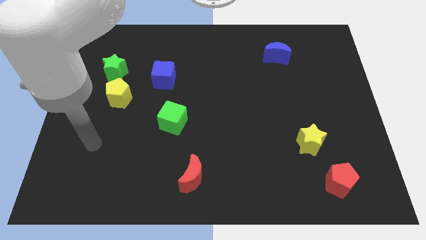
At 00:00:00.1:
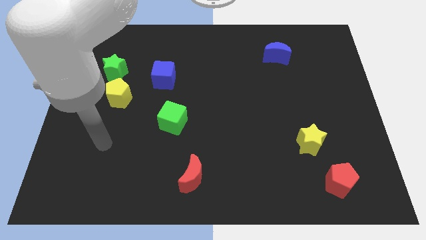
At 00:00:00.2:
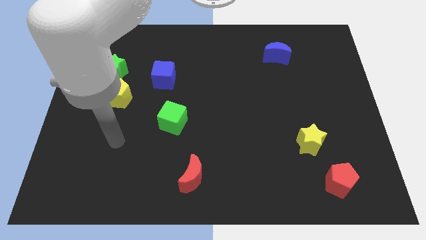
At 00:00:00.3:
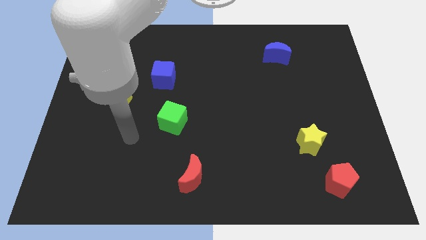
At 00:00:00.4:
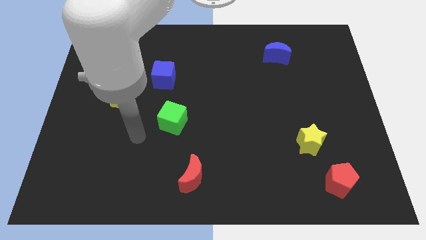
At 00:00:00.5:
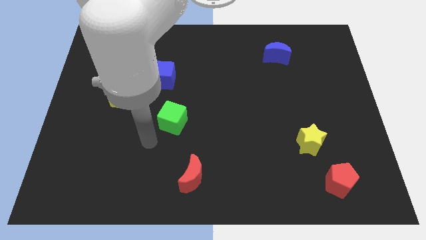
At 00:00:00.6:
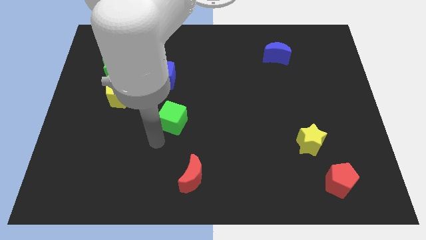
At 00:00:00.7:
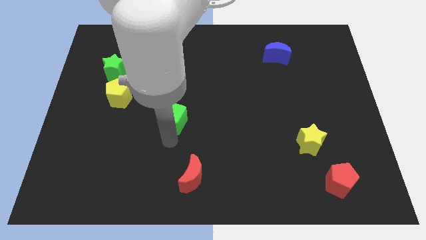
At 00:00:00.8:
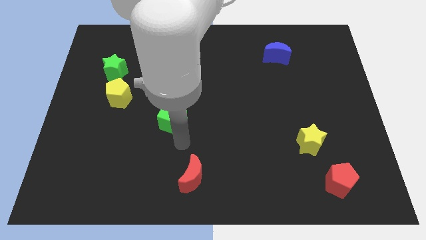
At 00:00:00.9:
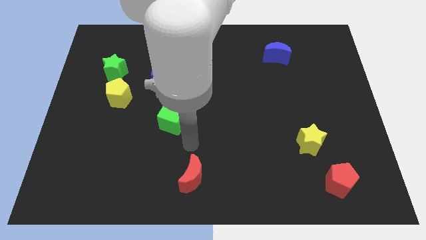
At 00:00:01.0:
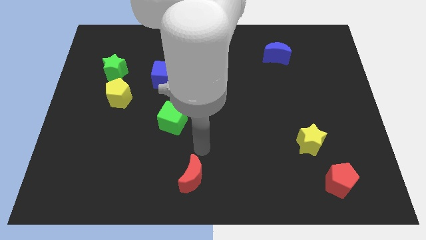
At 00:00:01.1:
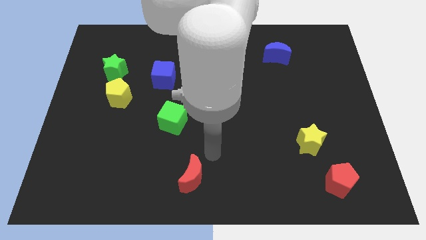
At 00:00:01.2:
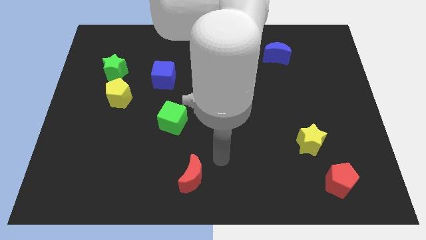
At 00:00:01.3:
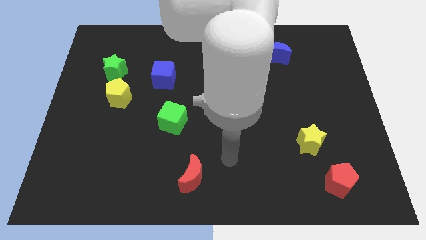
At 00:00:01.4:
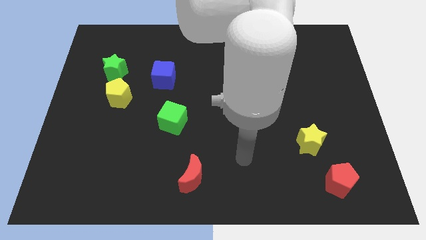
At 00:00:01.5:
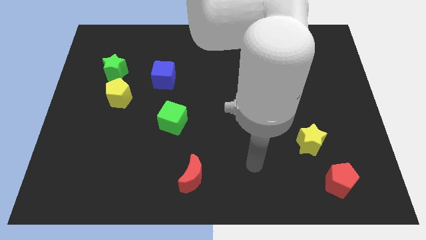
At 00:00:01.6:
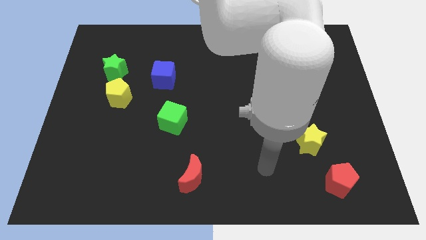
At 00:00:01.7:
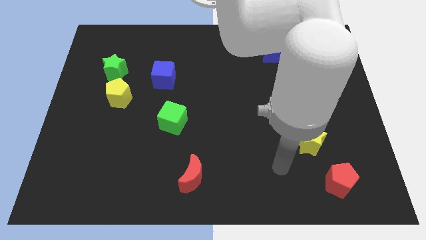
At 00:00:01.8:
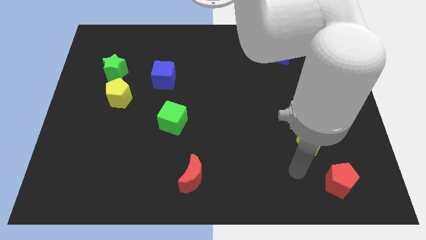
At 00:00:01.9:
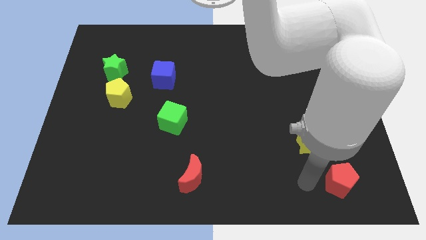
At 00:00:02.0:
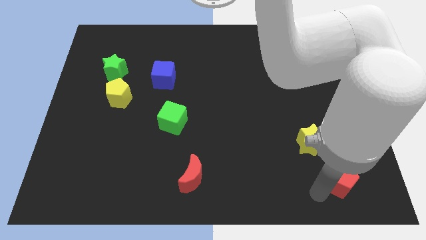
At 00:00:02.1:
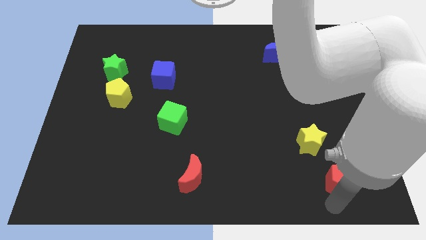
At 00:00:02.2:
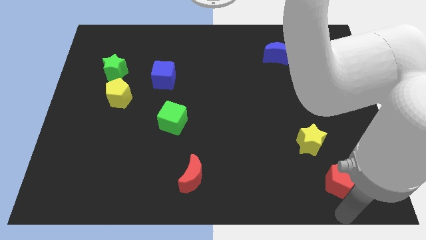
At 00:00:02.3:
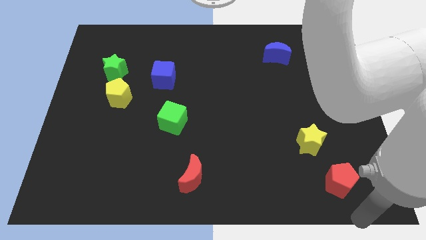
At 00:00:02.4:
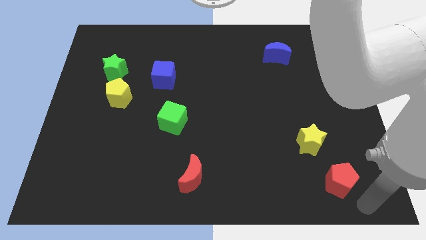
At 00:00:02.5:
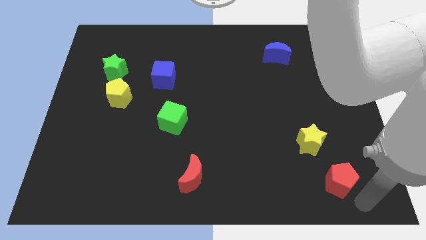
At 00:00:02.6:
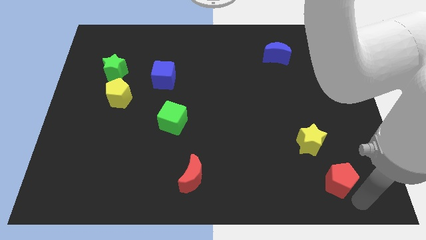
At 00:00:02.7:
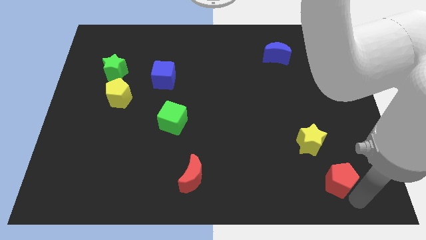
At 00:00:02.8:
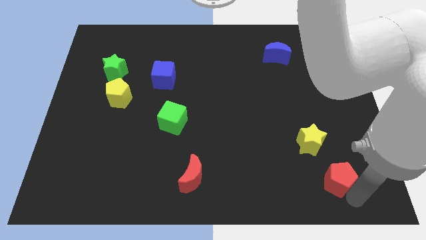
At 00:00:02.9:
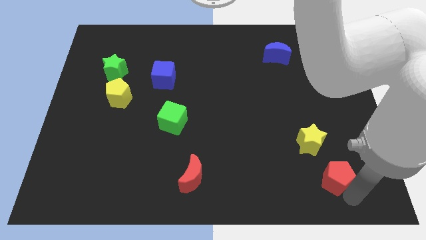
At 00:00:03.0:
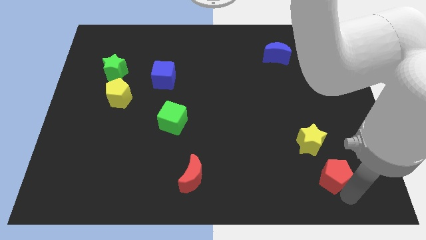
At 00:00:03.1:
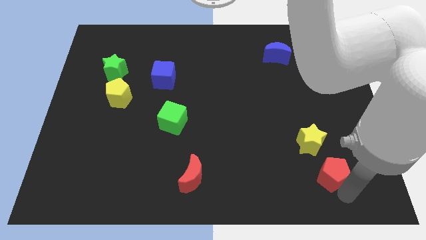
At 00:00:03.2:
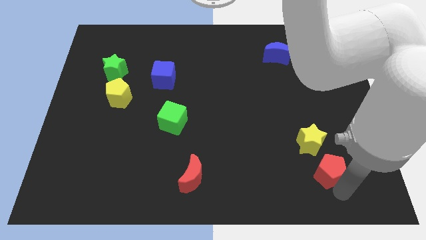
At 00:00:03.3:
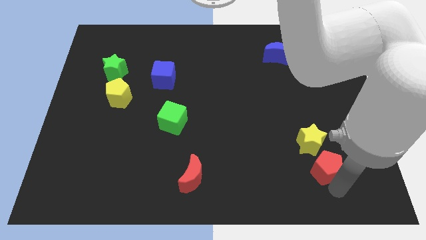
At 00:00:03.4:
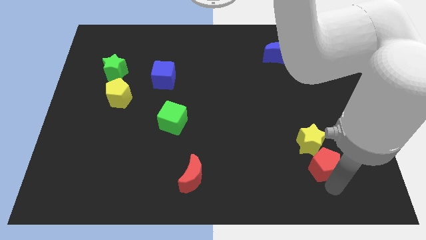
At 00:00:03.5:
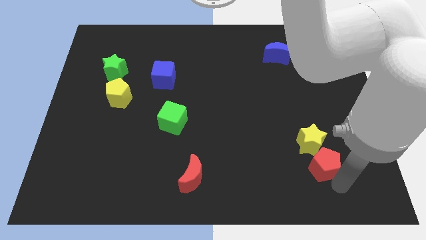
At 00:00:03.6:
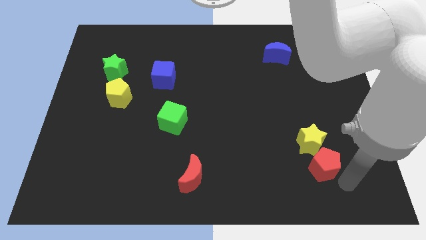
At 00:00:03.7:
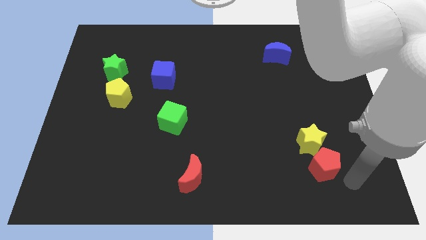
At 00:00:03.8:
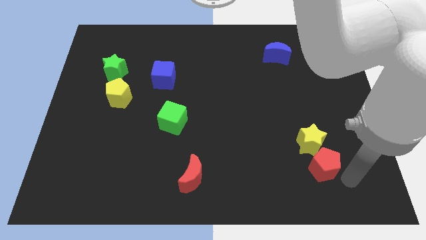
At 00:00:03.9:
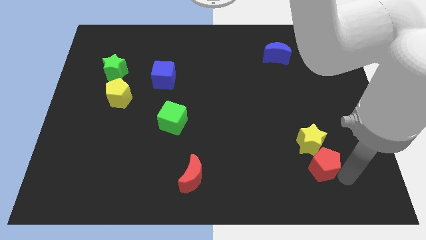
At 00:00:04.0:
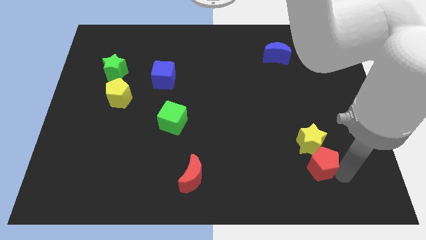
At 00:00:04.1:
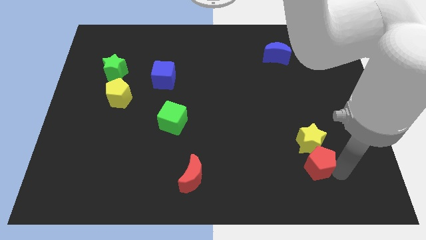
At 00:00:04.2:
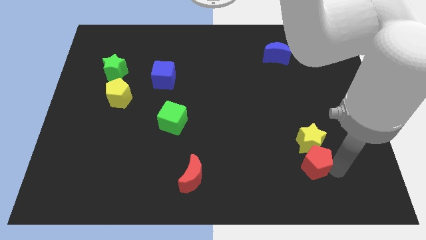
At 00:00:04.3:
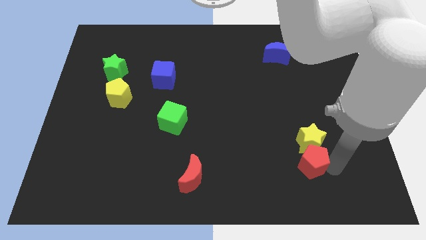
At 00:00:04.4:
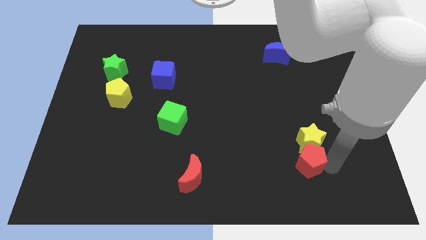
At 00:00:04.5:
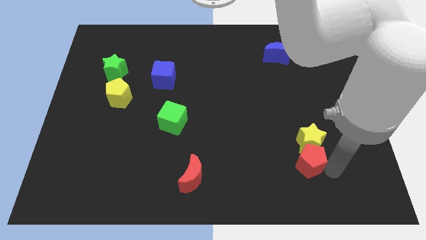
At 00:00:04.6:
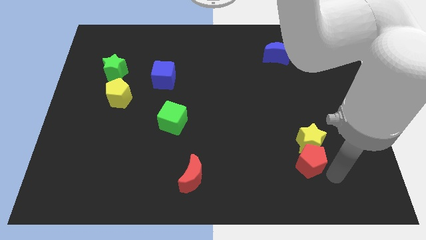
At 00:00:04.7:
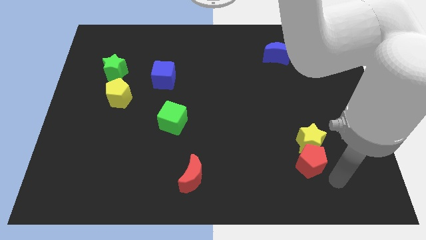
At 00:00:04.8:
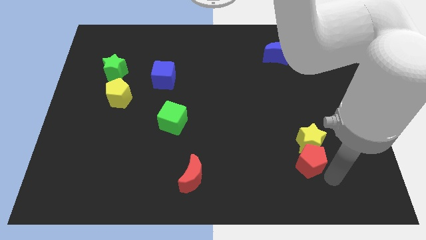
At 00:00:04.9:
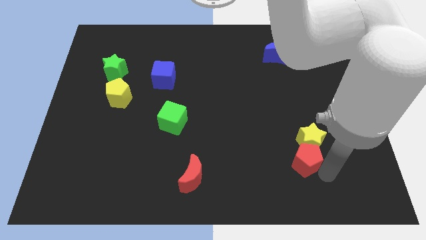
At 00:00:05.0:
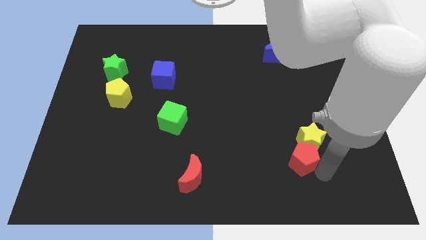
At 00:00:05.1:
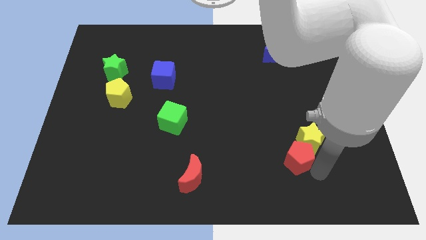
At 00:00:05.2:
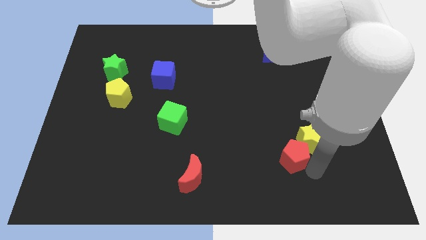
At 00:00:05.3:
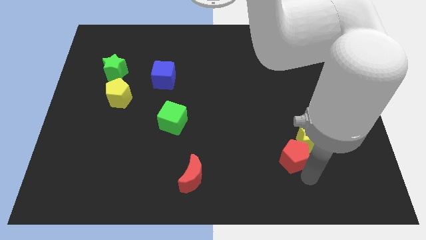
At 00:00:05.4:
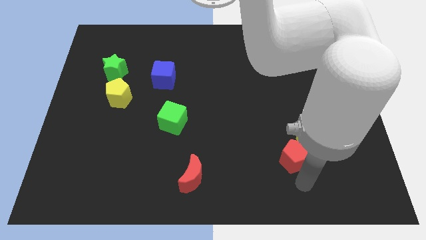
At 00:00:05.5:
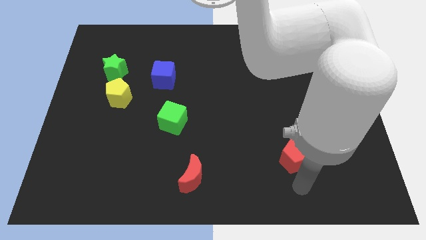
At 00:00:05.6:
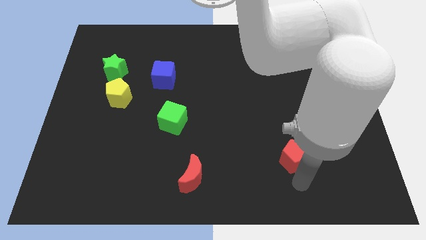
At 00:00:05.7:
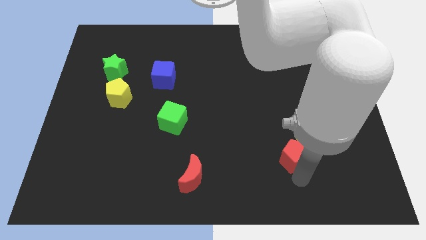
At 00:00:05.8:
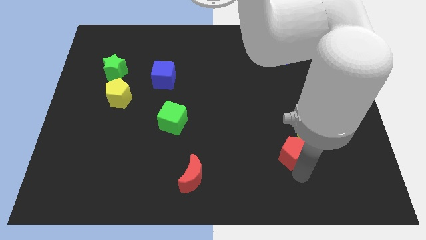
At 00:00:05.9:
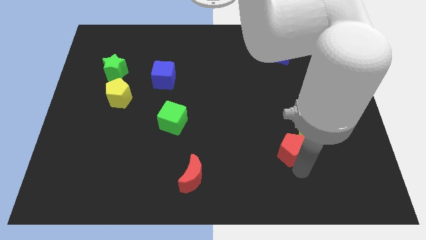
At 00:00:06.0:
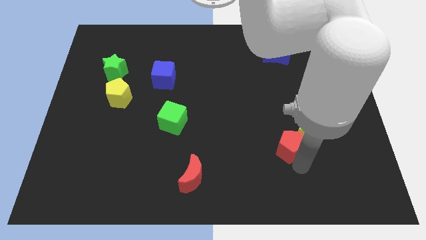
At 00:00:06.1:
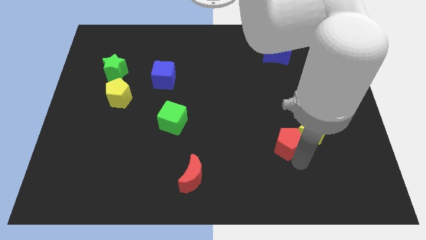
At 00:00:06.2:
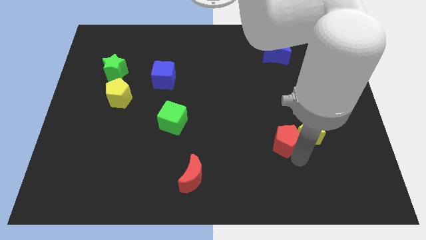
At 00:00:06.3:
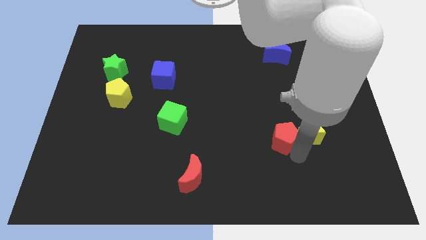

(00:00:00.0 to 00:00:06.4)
put the red pentagon diagonally up and to the left of the yellow star

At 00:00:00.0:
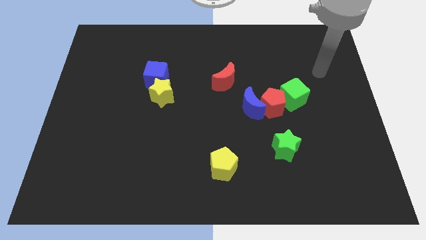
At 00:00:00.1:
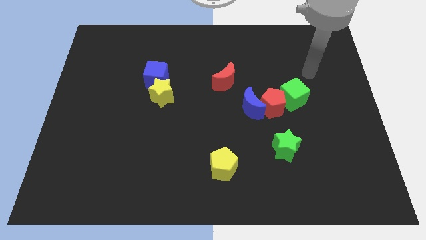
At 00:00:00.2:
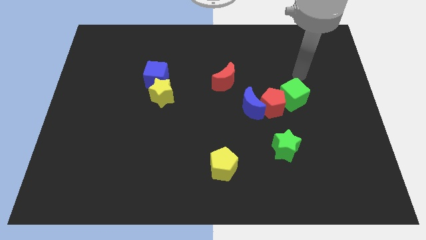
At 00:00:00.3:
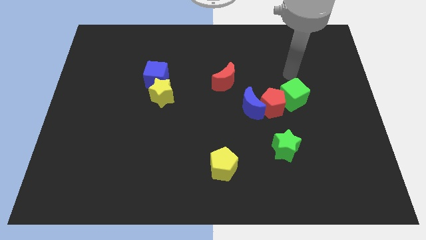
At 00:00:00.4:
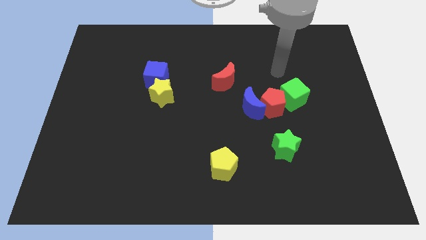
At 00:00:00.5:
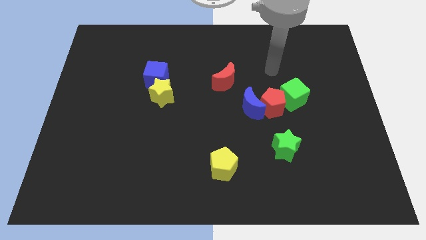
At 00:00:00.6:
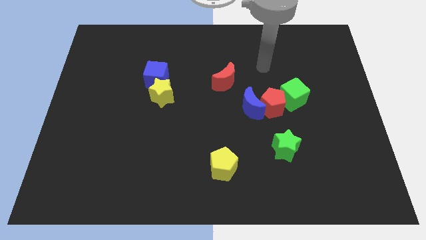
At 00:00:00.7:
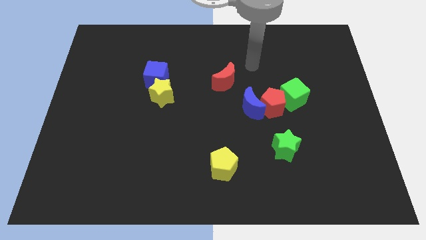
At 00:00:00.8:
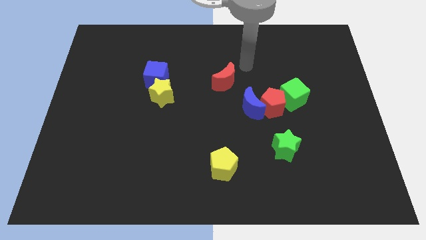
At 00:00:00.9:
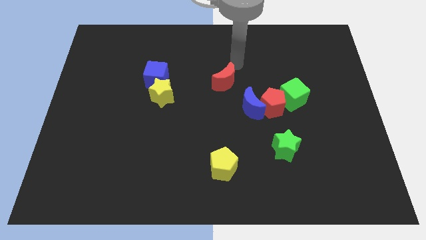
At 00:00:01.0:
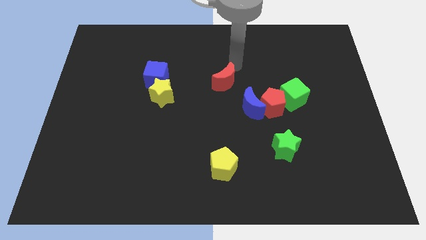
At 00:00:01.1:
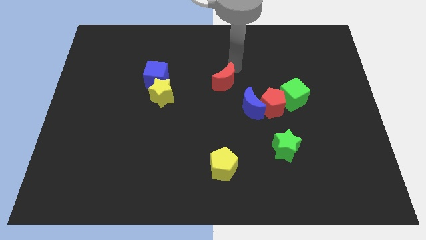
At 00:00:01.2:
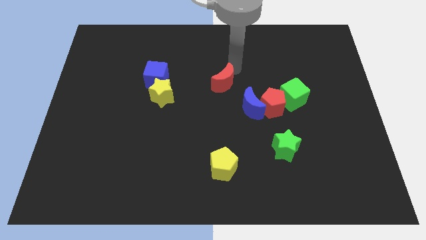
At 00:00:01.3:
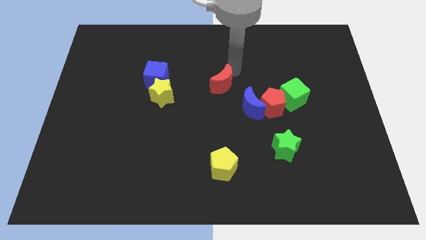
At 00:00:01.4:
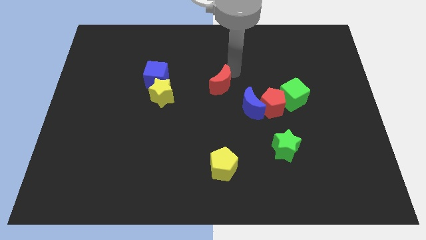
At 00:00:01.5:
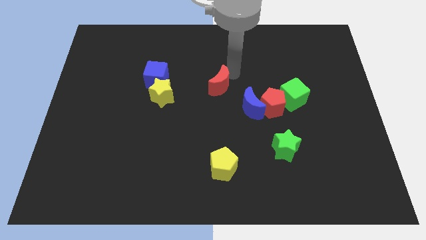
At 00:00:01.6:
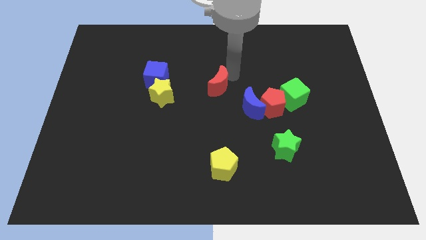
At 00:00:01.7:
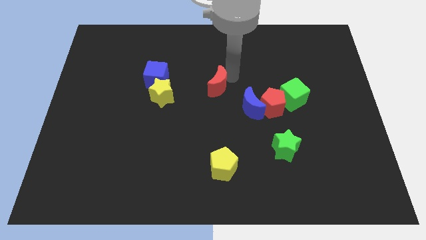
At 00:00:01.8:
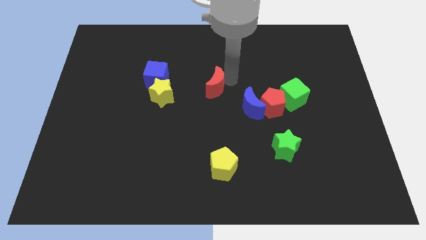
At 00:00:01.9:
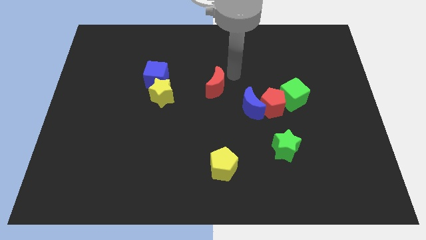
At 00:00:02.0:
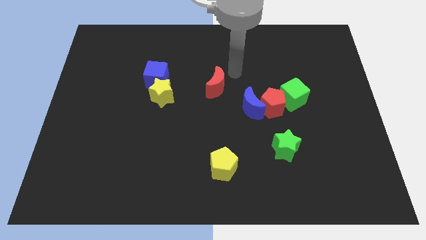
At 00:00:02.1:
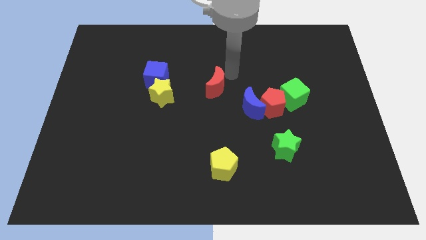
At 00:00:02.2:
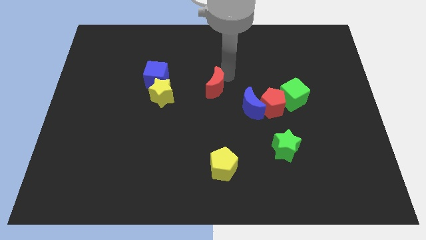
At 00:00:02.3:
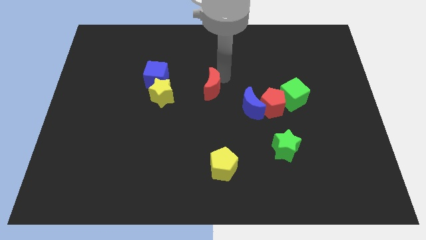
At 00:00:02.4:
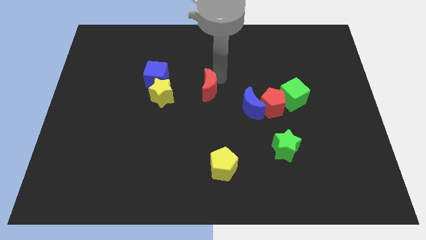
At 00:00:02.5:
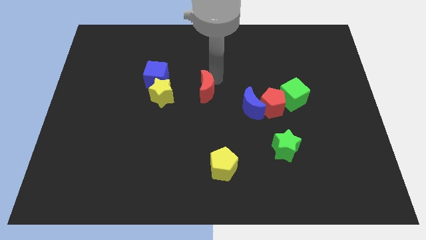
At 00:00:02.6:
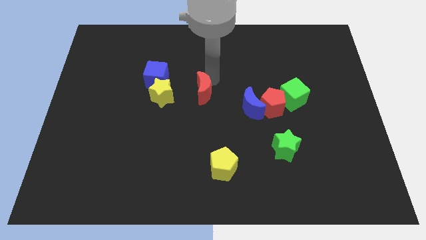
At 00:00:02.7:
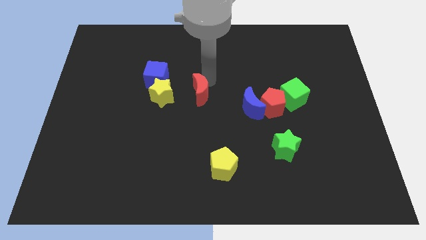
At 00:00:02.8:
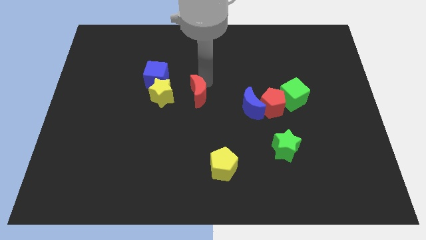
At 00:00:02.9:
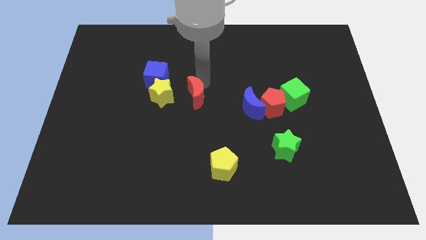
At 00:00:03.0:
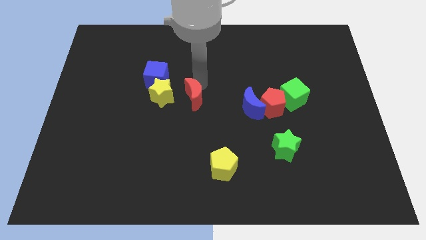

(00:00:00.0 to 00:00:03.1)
slide the red moon diagonally down and to the right of the yellow star
